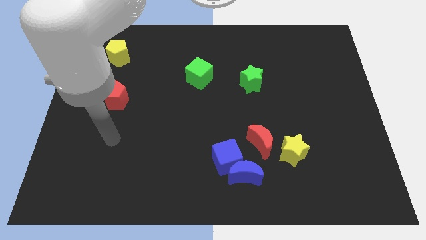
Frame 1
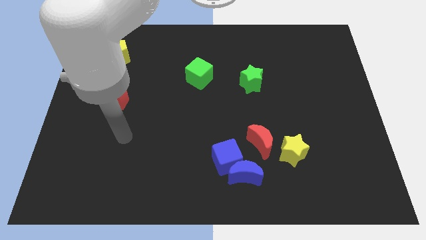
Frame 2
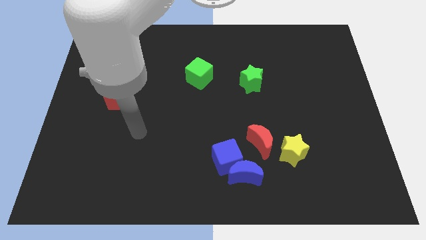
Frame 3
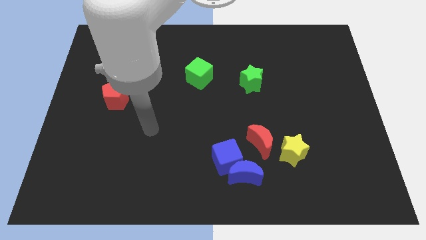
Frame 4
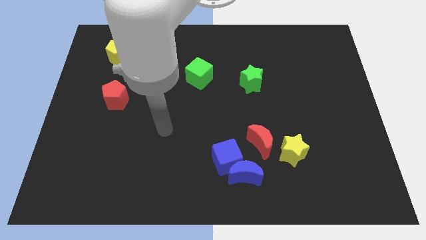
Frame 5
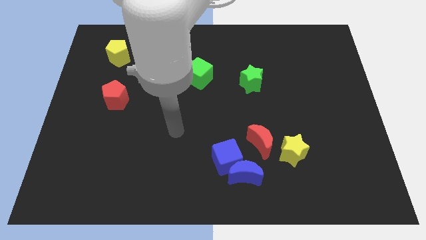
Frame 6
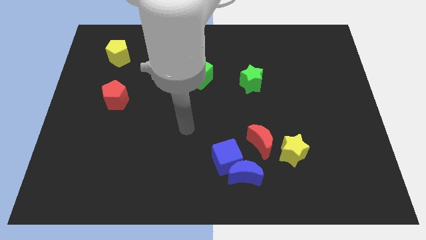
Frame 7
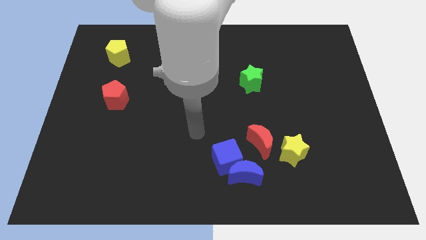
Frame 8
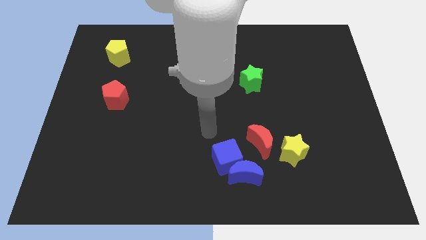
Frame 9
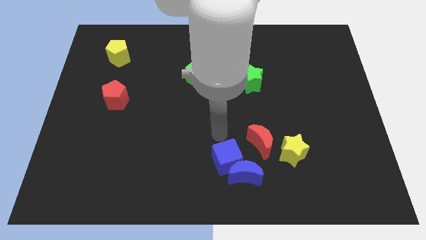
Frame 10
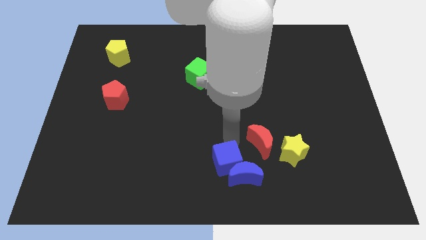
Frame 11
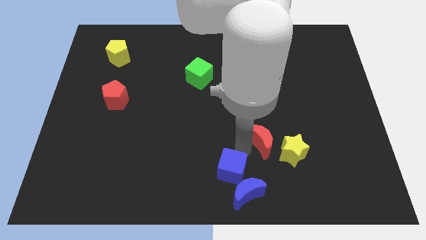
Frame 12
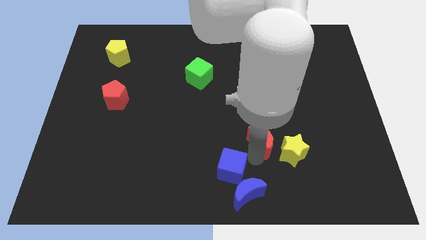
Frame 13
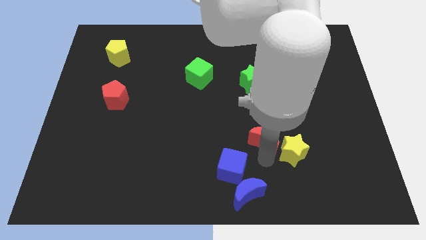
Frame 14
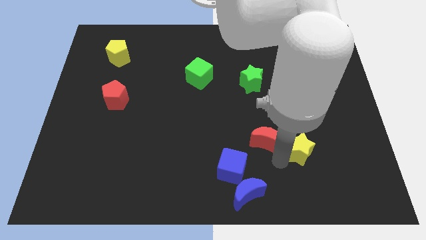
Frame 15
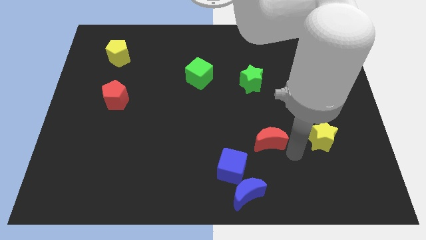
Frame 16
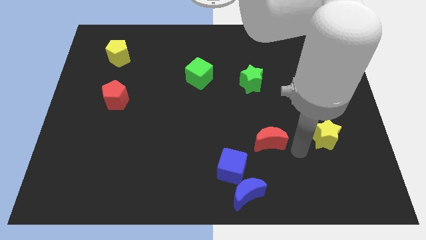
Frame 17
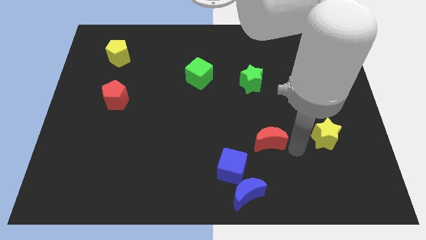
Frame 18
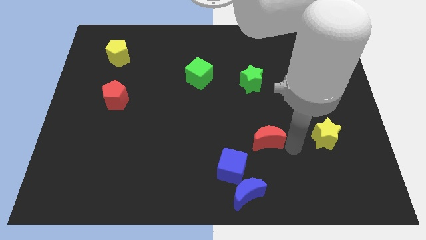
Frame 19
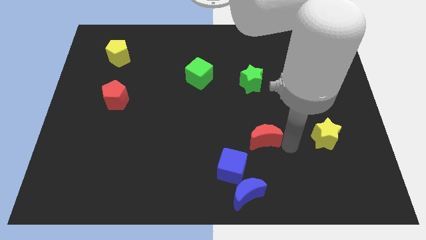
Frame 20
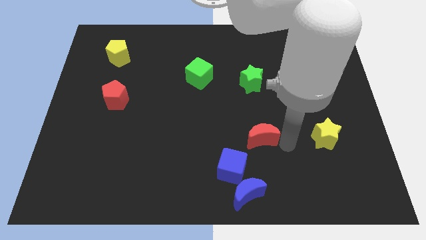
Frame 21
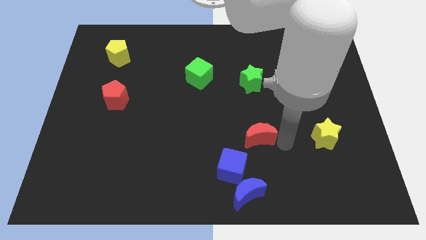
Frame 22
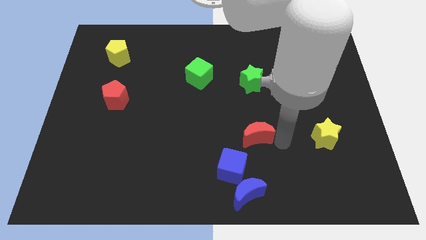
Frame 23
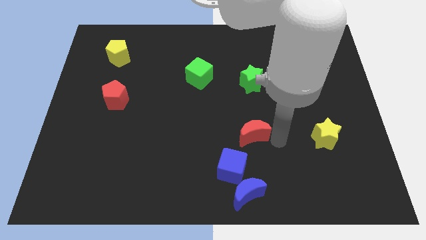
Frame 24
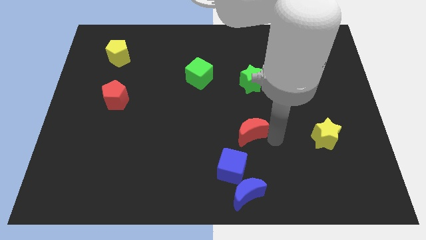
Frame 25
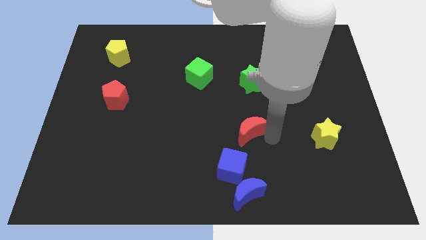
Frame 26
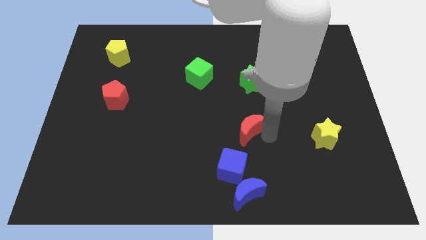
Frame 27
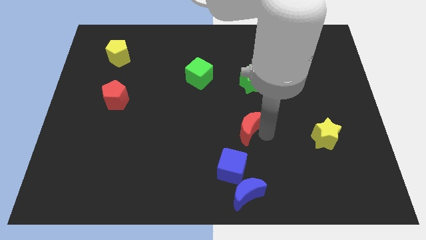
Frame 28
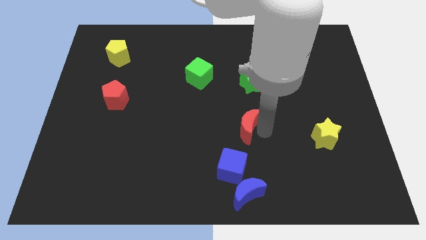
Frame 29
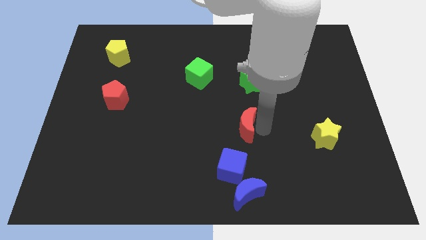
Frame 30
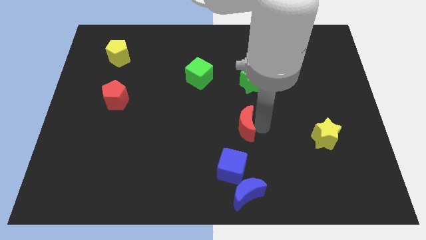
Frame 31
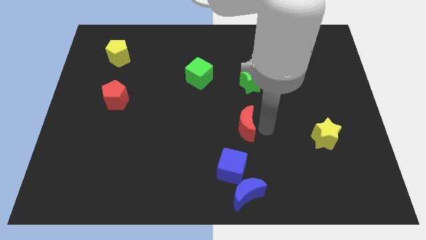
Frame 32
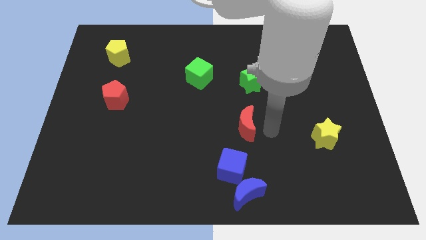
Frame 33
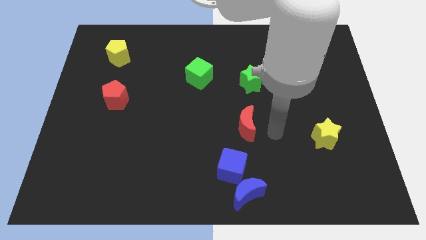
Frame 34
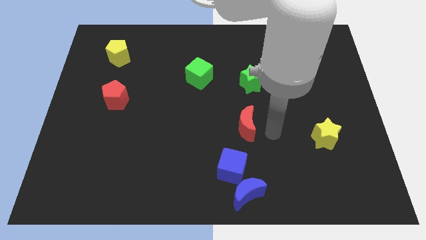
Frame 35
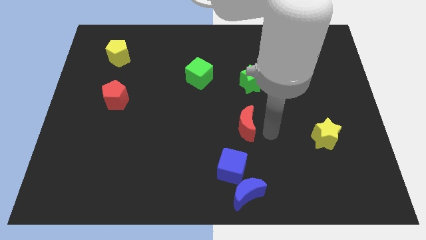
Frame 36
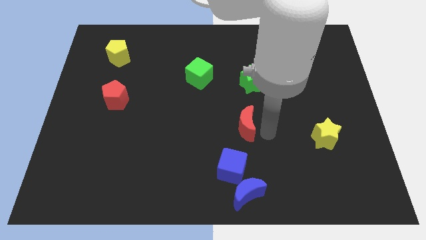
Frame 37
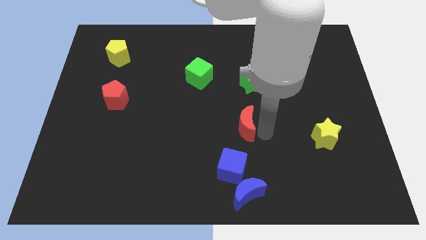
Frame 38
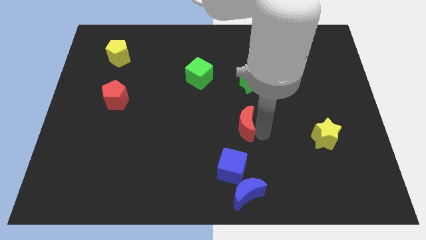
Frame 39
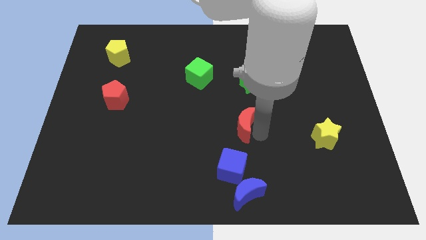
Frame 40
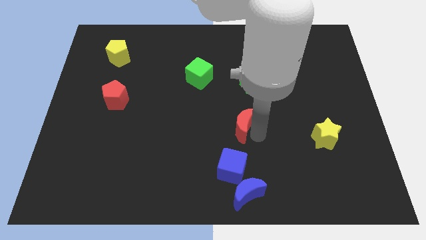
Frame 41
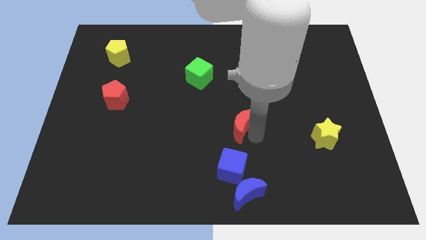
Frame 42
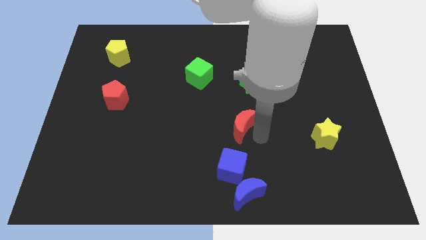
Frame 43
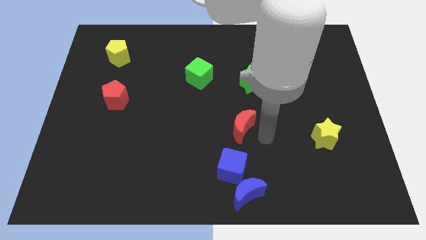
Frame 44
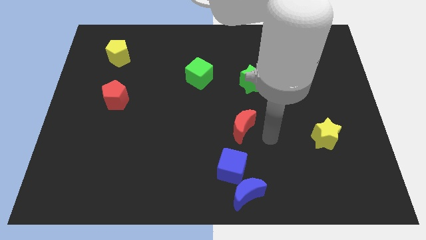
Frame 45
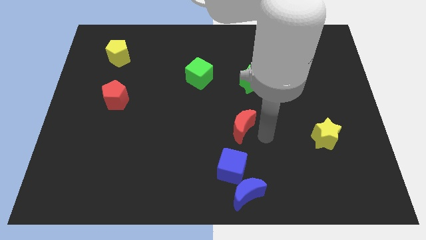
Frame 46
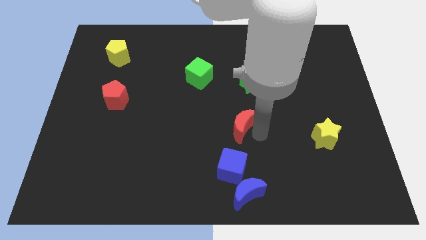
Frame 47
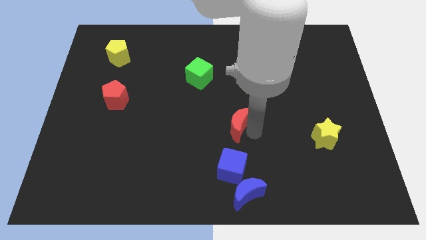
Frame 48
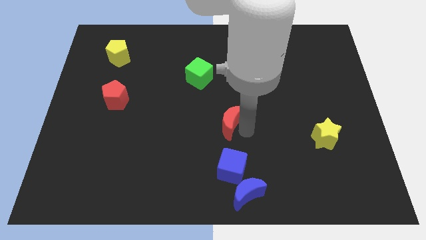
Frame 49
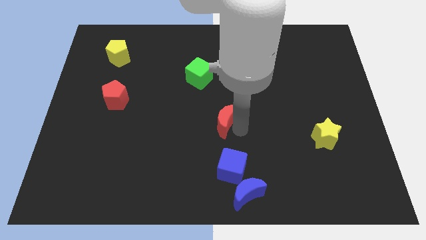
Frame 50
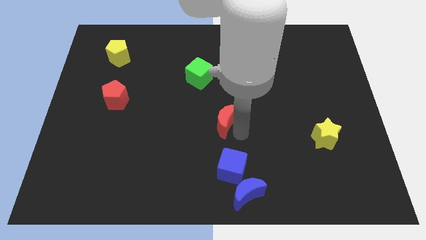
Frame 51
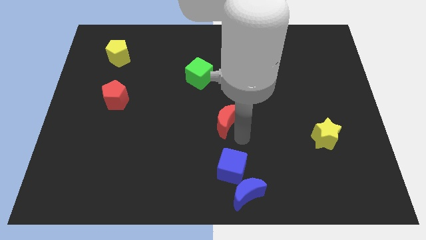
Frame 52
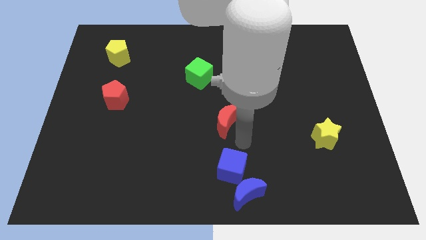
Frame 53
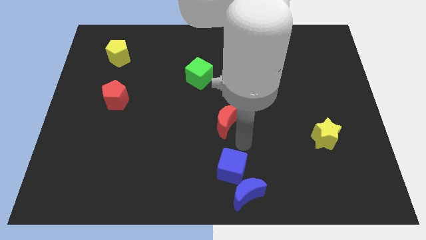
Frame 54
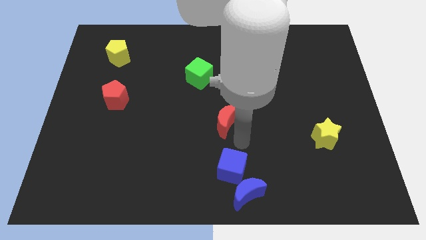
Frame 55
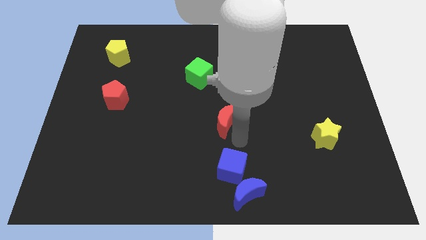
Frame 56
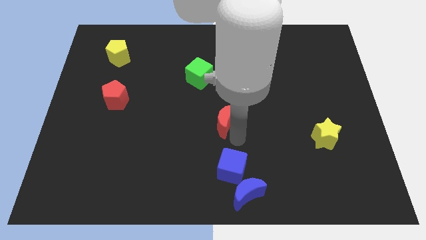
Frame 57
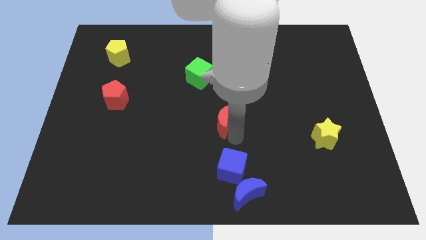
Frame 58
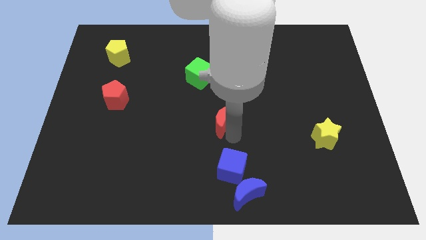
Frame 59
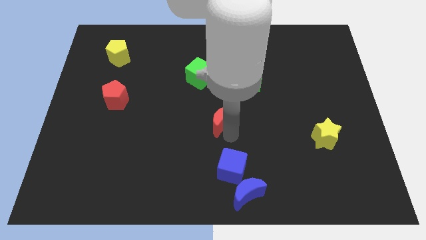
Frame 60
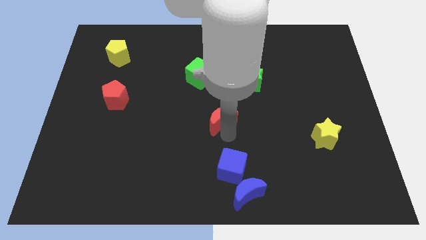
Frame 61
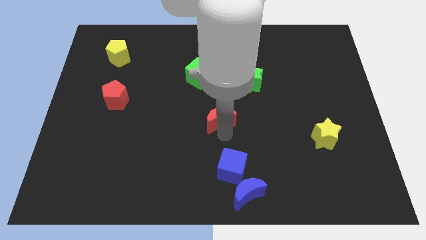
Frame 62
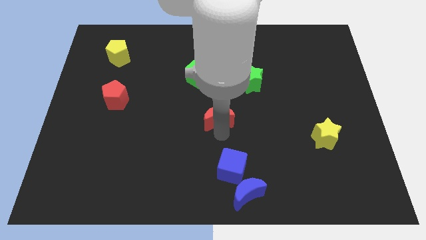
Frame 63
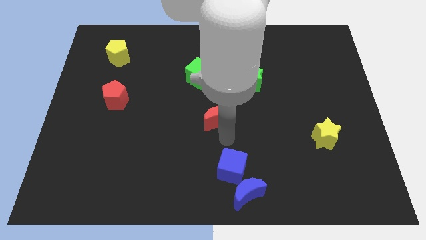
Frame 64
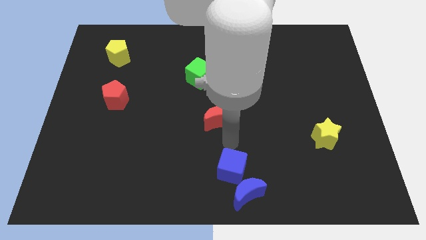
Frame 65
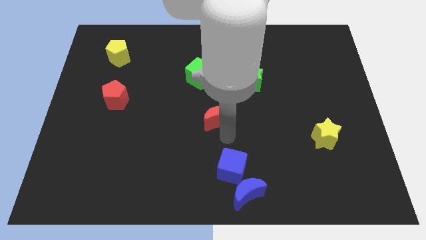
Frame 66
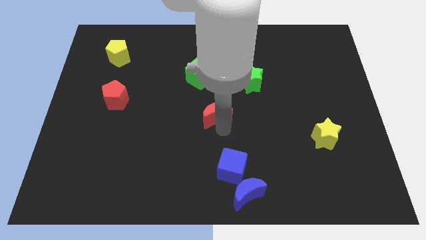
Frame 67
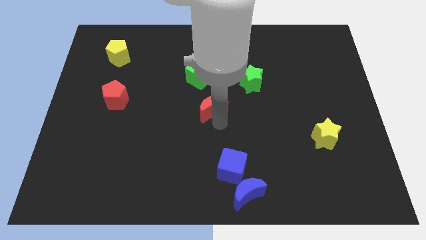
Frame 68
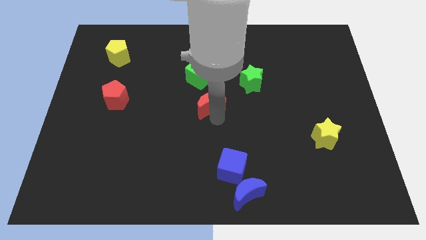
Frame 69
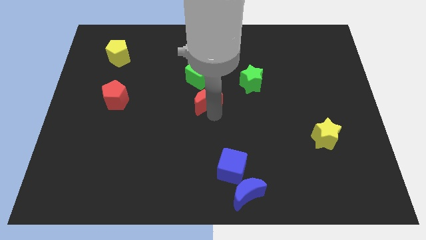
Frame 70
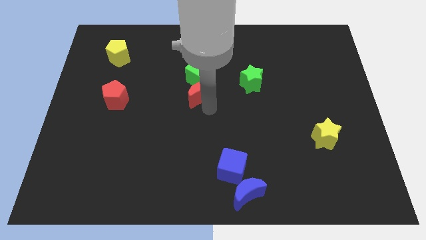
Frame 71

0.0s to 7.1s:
put the red moon towards the green cube
